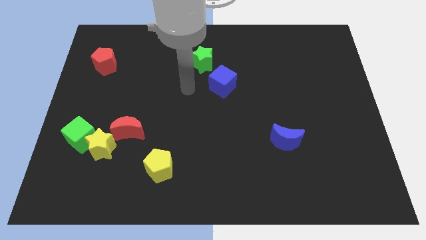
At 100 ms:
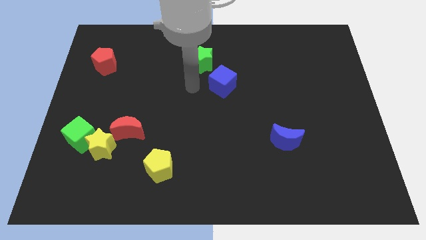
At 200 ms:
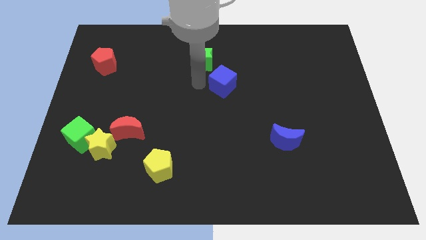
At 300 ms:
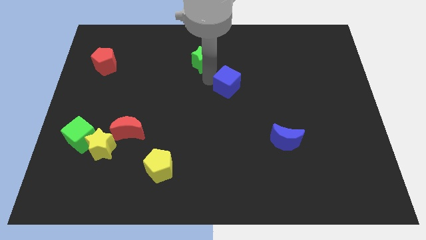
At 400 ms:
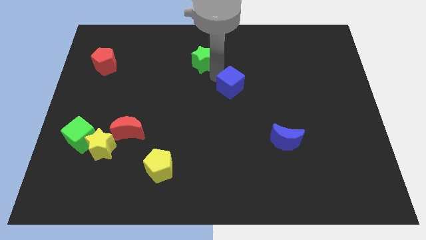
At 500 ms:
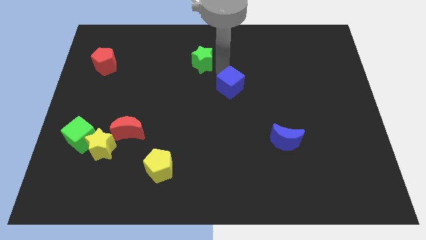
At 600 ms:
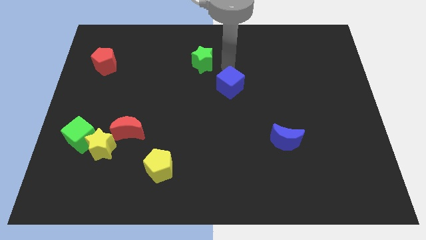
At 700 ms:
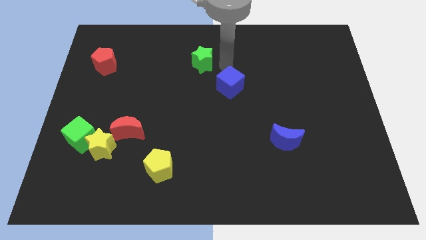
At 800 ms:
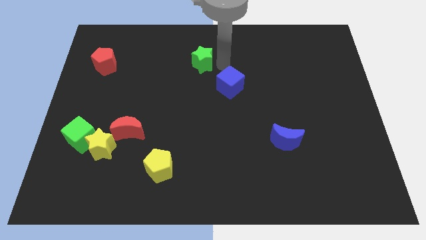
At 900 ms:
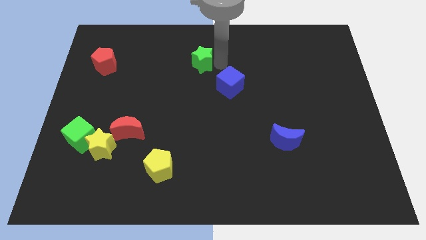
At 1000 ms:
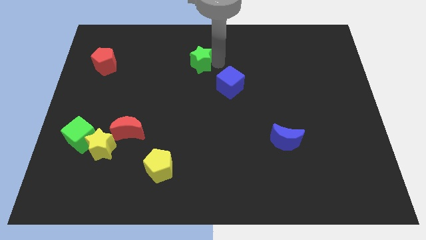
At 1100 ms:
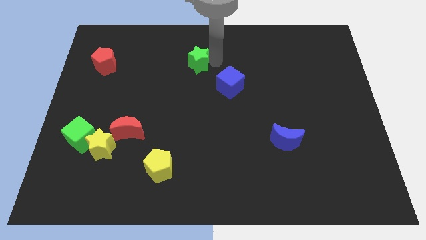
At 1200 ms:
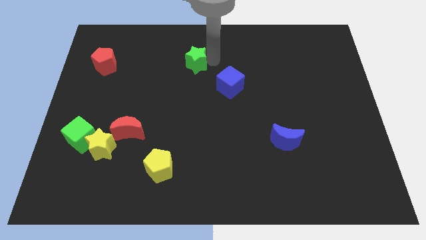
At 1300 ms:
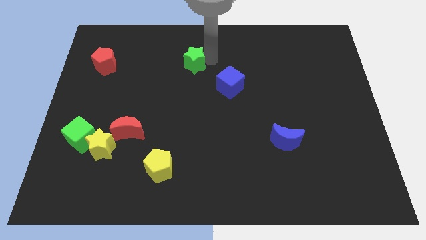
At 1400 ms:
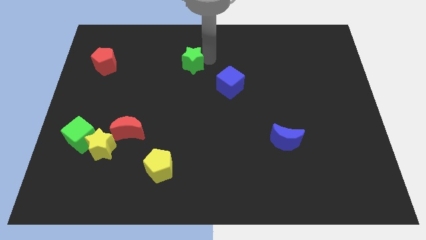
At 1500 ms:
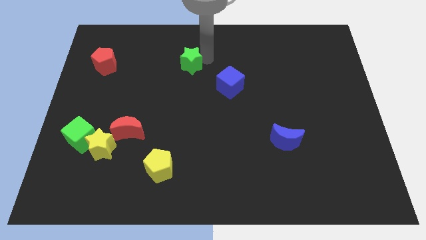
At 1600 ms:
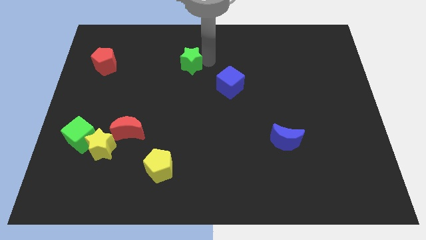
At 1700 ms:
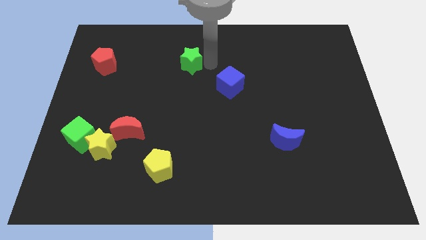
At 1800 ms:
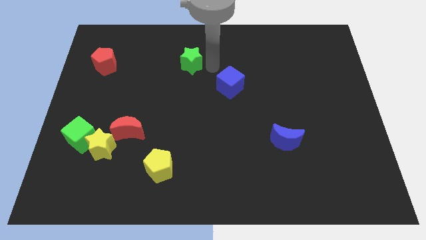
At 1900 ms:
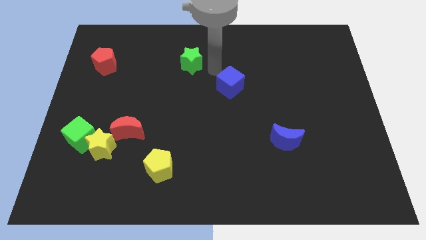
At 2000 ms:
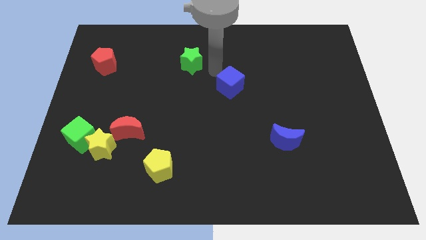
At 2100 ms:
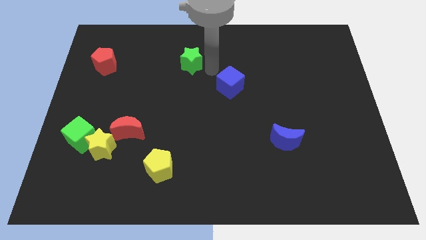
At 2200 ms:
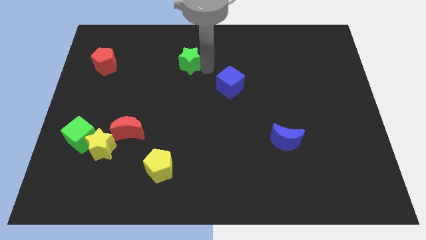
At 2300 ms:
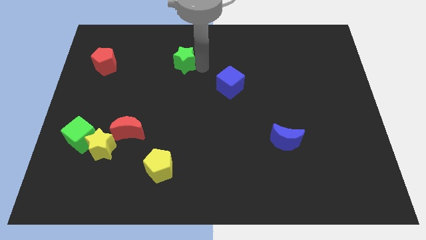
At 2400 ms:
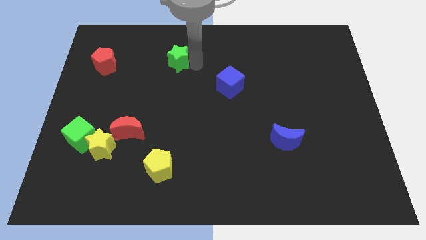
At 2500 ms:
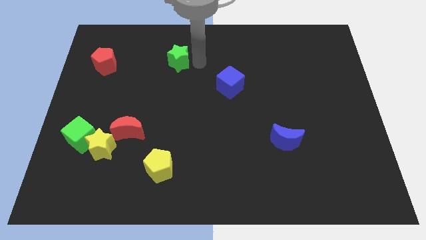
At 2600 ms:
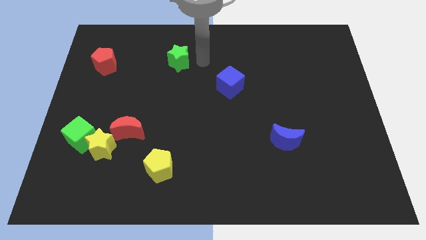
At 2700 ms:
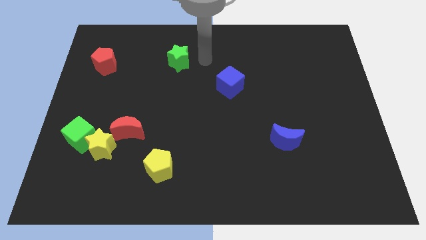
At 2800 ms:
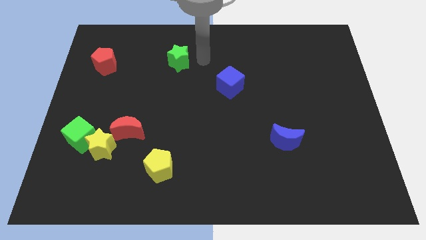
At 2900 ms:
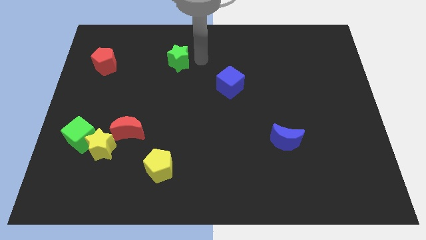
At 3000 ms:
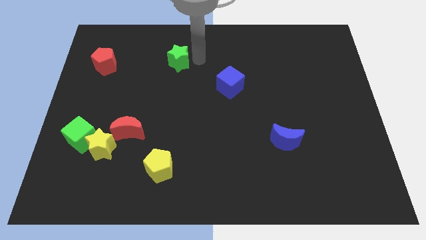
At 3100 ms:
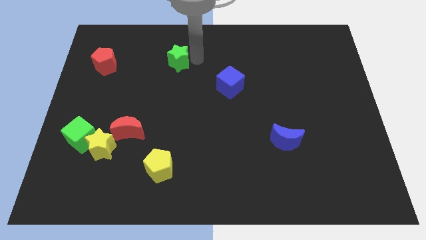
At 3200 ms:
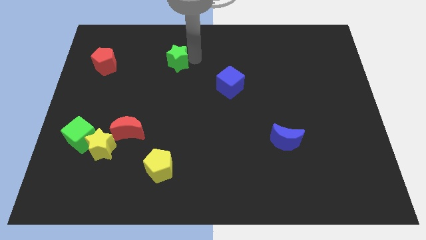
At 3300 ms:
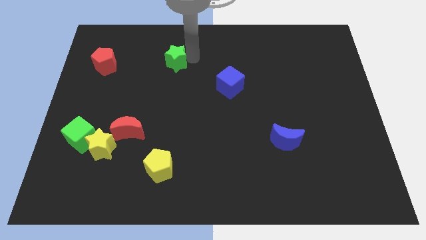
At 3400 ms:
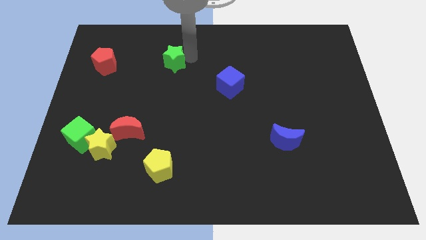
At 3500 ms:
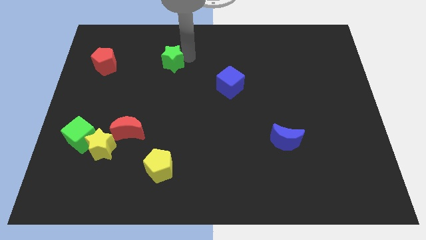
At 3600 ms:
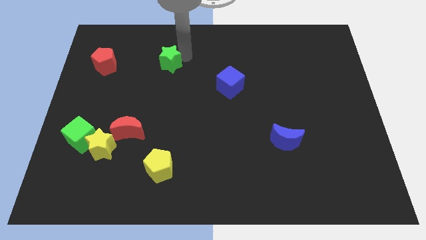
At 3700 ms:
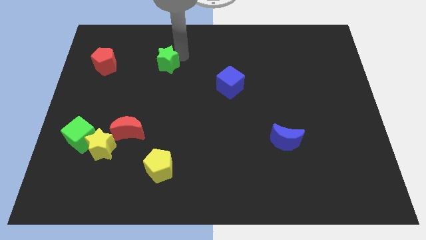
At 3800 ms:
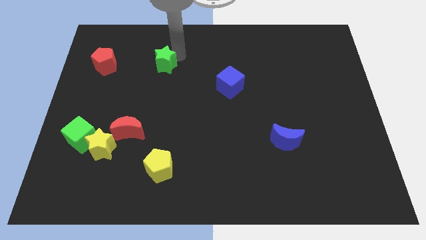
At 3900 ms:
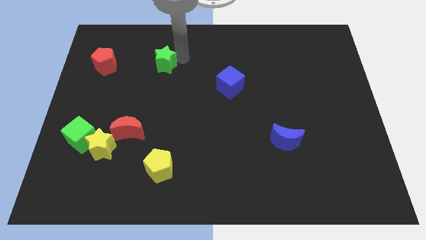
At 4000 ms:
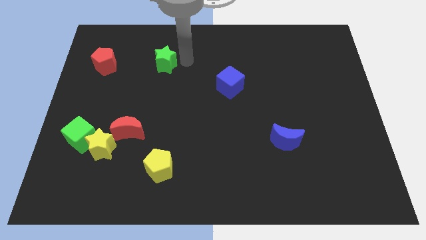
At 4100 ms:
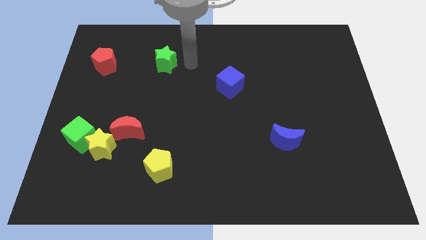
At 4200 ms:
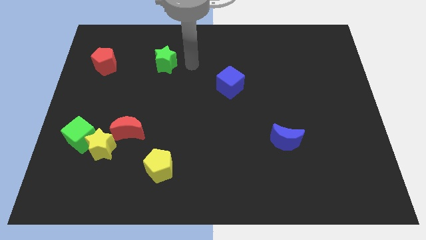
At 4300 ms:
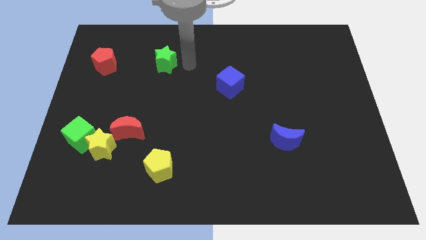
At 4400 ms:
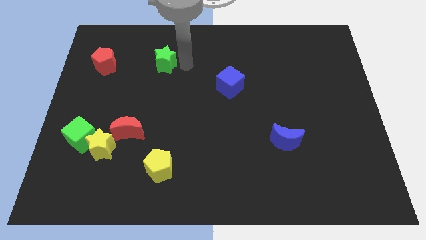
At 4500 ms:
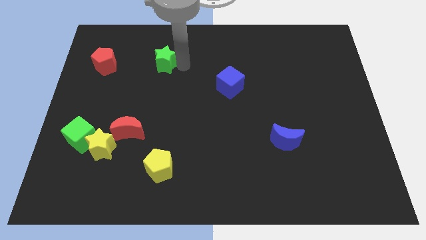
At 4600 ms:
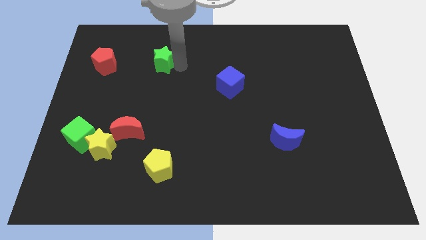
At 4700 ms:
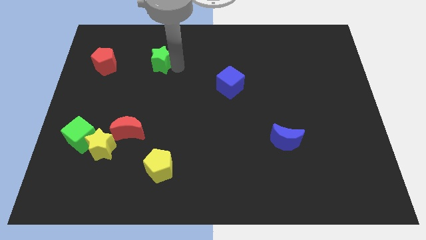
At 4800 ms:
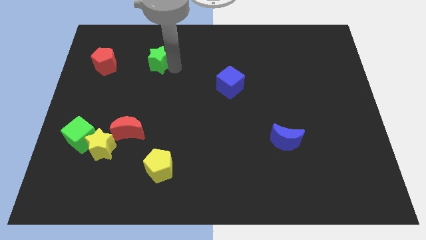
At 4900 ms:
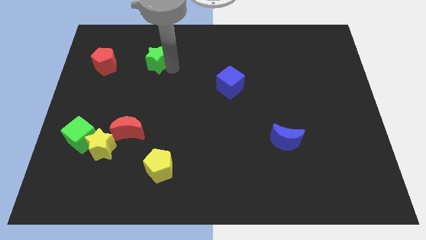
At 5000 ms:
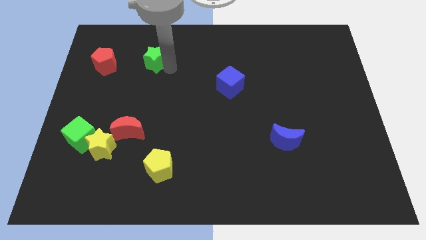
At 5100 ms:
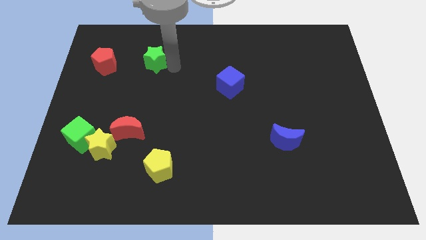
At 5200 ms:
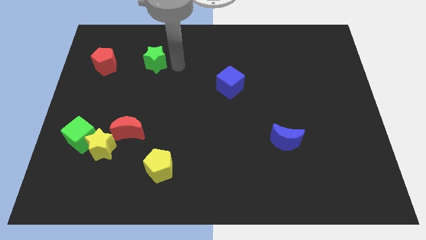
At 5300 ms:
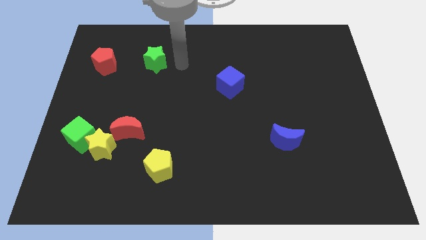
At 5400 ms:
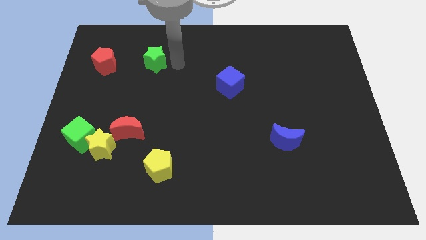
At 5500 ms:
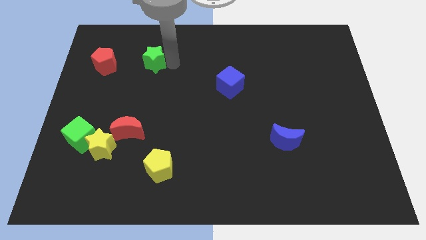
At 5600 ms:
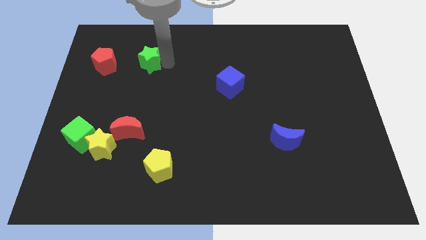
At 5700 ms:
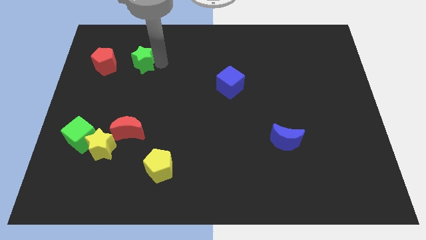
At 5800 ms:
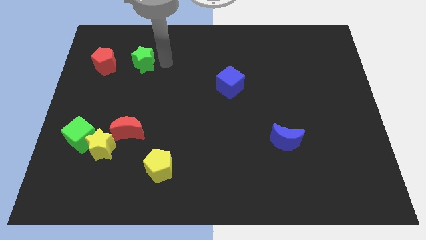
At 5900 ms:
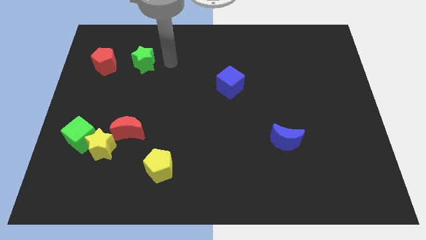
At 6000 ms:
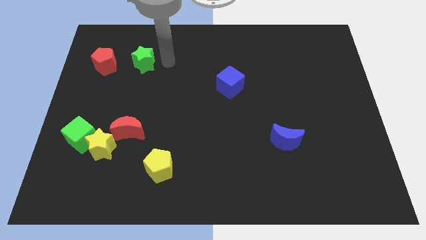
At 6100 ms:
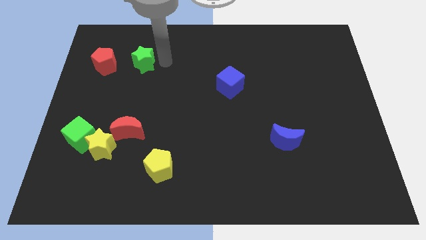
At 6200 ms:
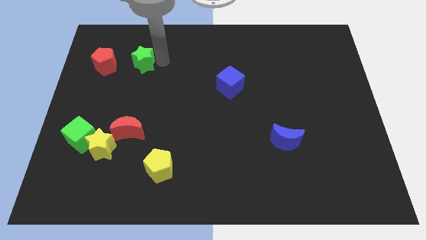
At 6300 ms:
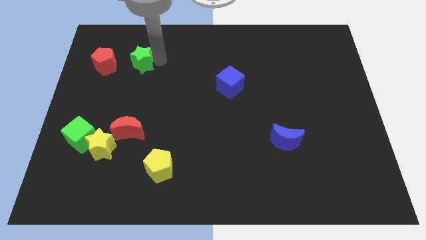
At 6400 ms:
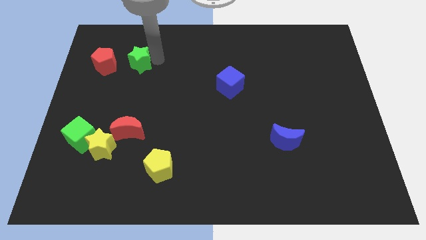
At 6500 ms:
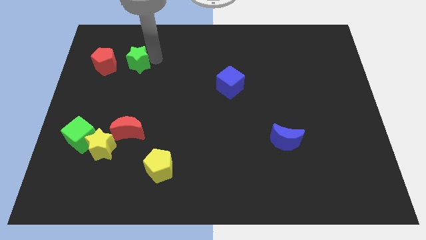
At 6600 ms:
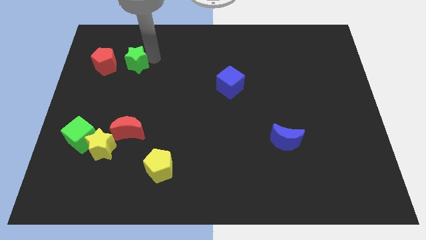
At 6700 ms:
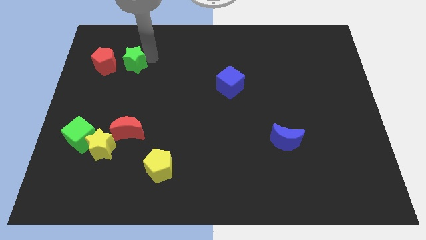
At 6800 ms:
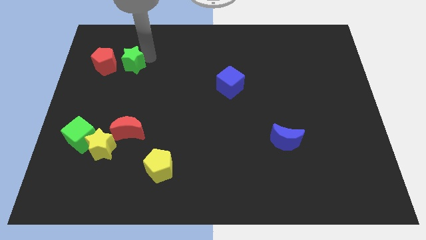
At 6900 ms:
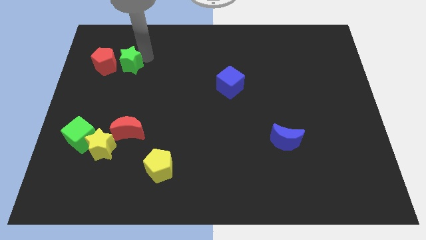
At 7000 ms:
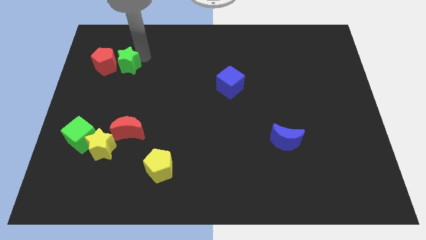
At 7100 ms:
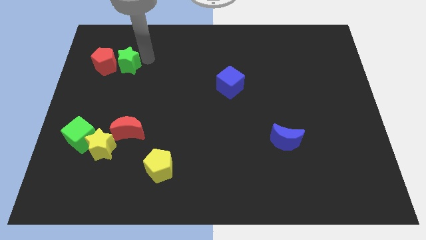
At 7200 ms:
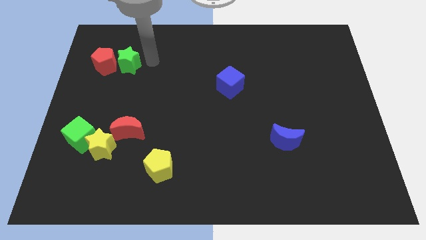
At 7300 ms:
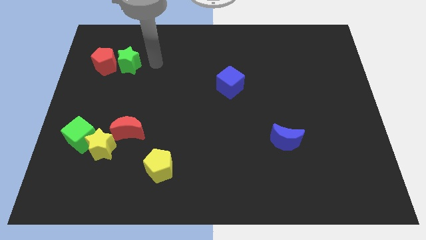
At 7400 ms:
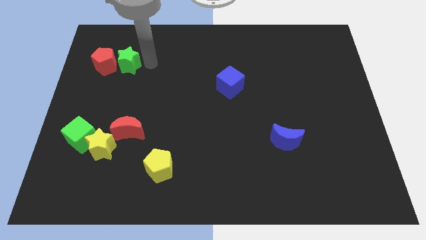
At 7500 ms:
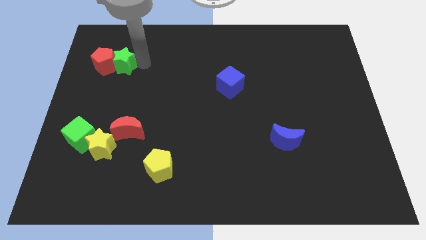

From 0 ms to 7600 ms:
slide the green star towards the red pentagon
